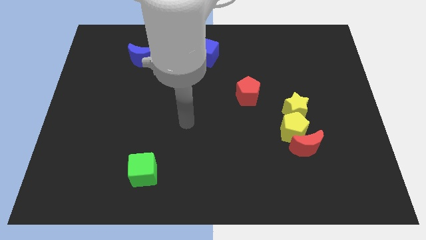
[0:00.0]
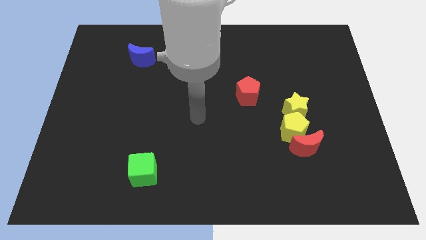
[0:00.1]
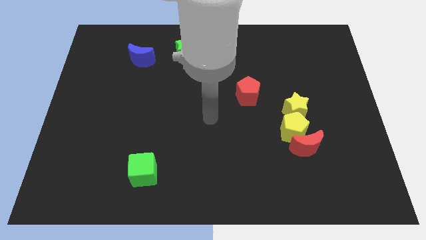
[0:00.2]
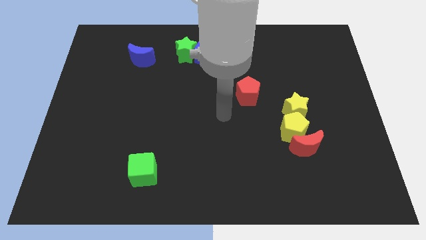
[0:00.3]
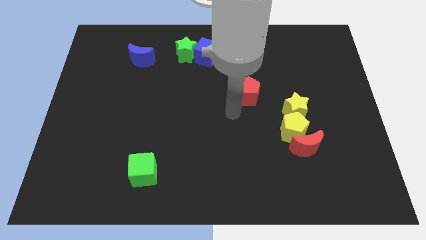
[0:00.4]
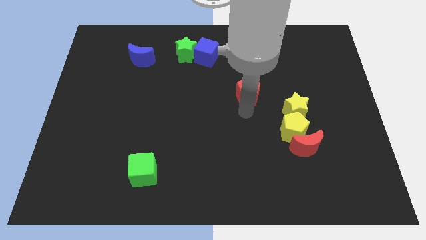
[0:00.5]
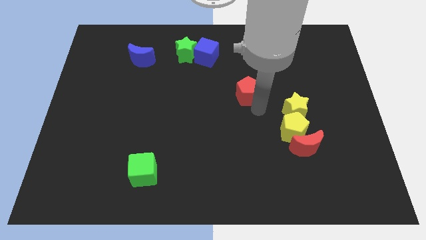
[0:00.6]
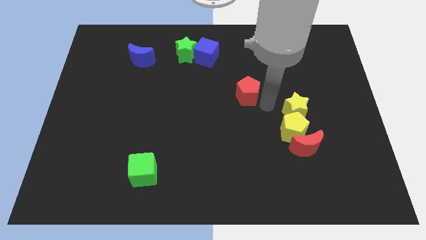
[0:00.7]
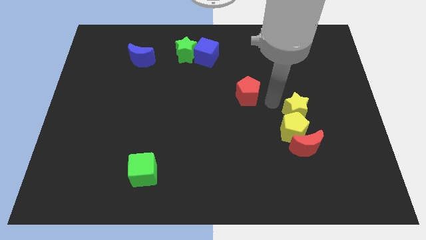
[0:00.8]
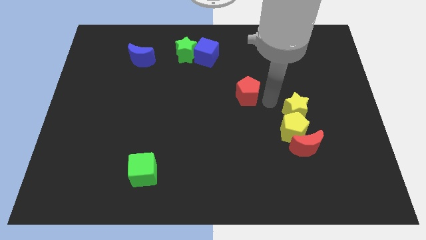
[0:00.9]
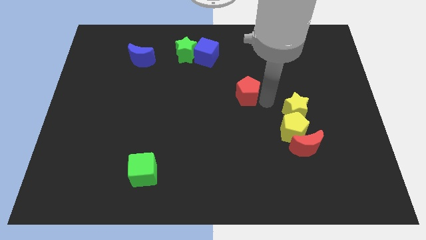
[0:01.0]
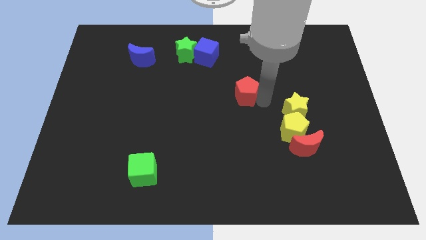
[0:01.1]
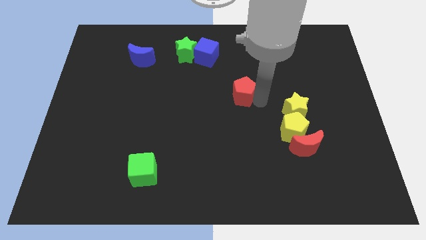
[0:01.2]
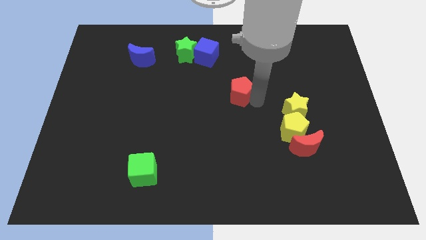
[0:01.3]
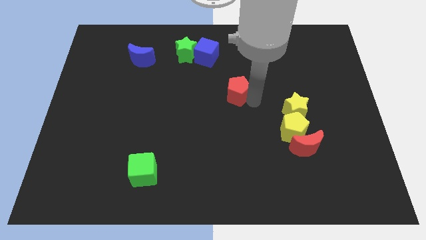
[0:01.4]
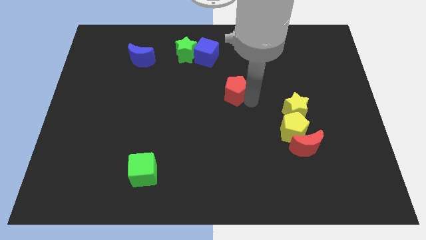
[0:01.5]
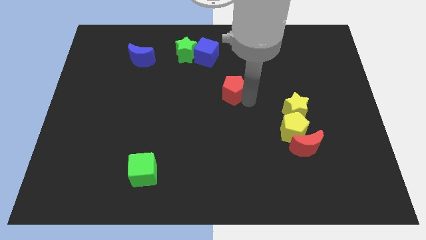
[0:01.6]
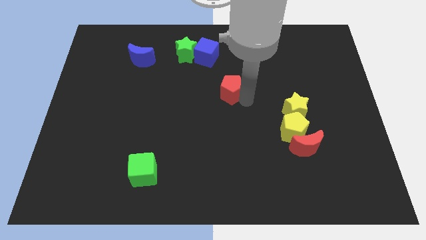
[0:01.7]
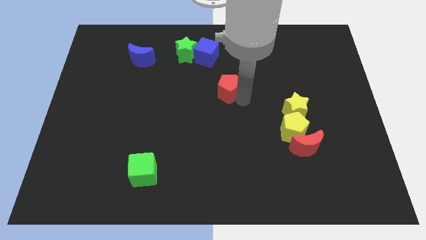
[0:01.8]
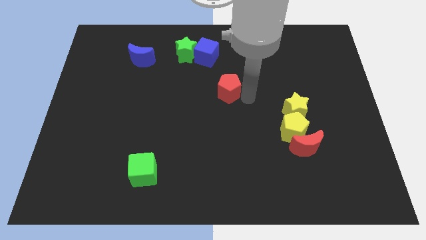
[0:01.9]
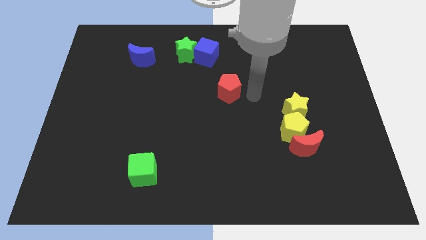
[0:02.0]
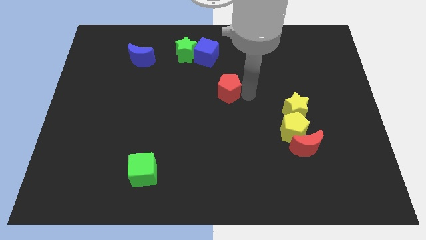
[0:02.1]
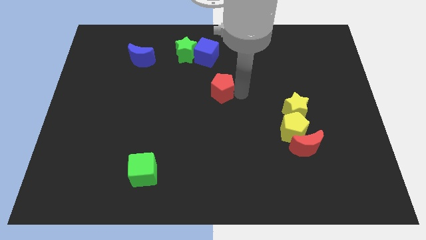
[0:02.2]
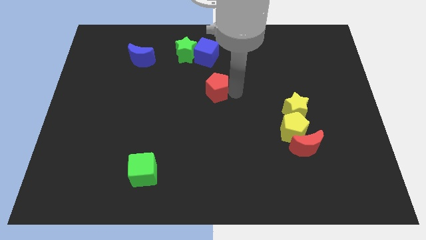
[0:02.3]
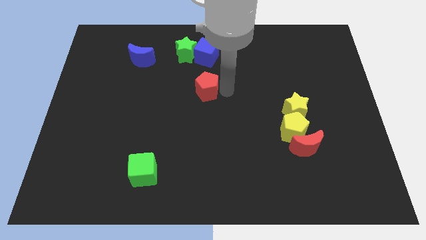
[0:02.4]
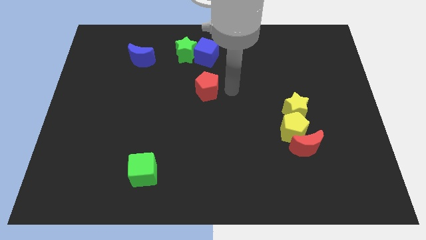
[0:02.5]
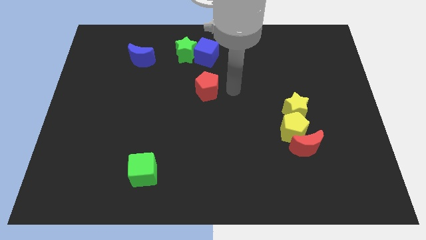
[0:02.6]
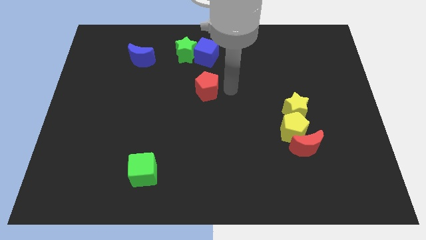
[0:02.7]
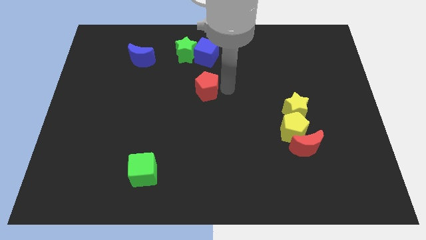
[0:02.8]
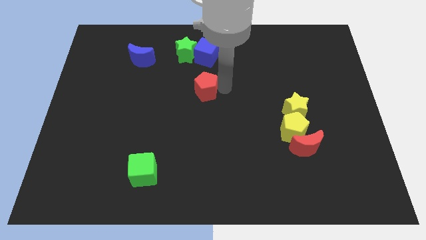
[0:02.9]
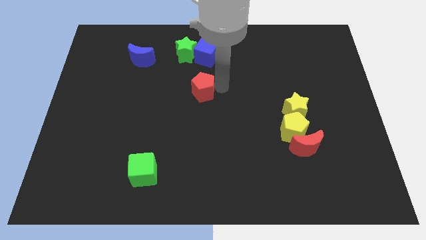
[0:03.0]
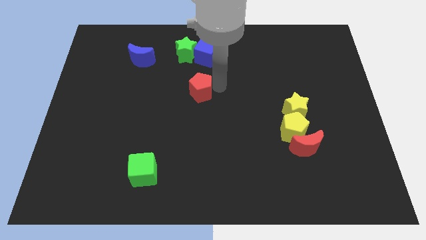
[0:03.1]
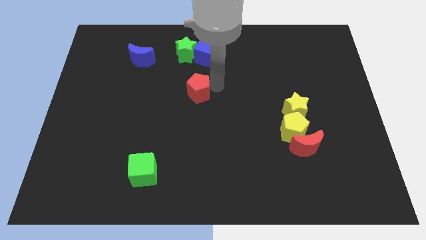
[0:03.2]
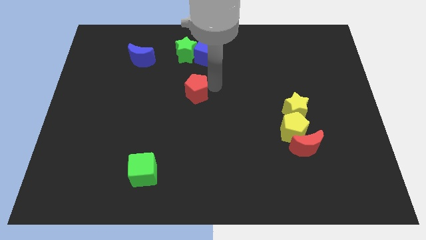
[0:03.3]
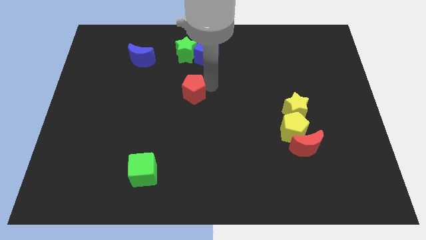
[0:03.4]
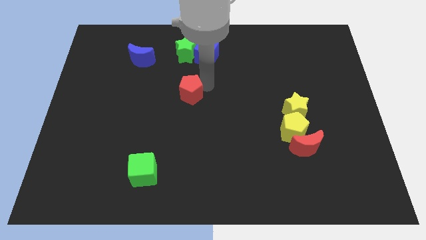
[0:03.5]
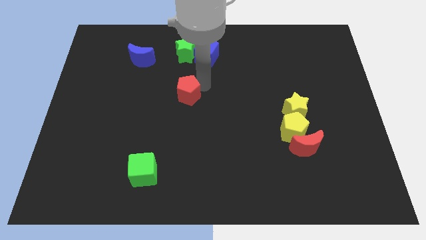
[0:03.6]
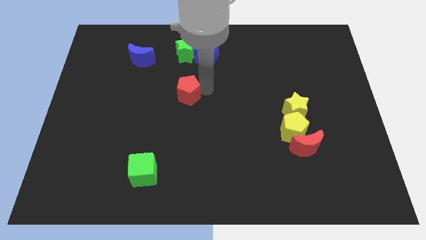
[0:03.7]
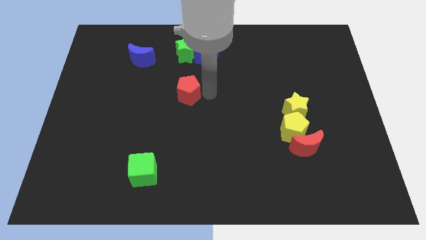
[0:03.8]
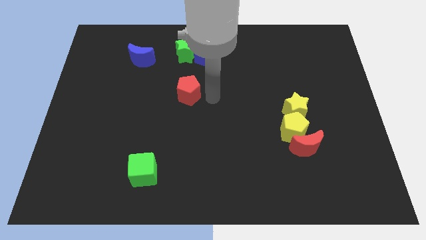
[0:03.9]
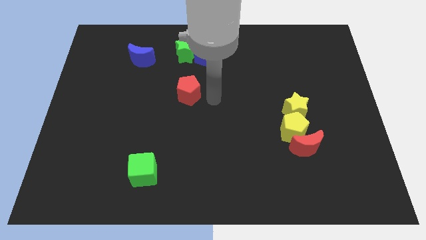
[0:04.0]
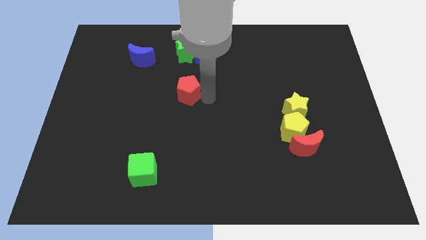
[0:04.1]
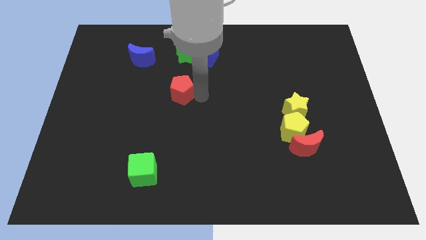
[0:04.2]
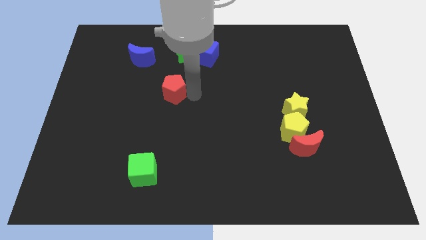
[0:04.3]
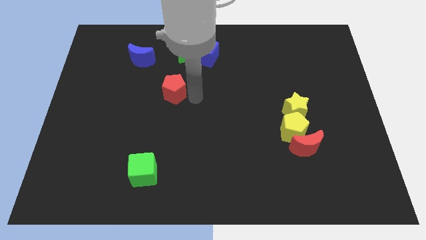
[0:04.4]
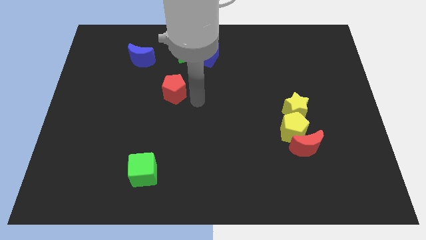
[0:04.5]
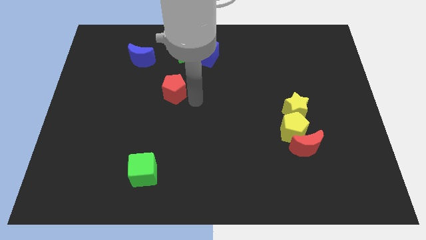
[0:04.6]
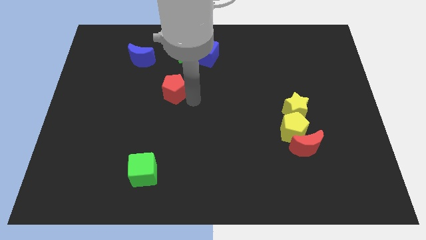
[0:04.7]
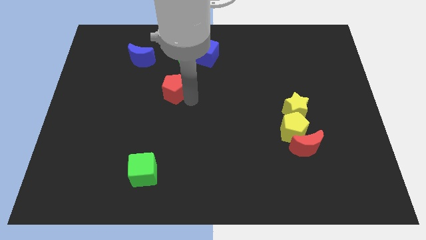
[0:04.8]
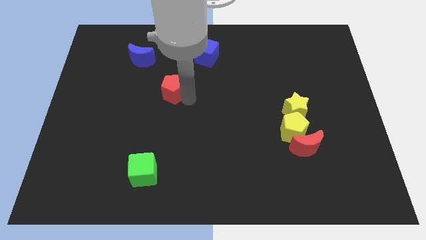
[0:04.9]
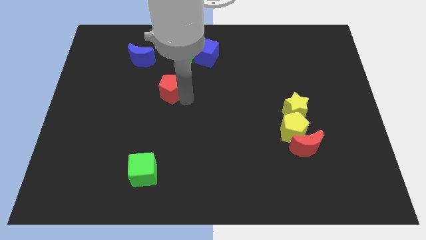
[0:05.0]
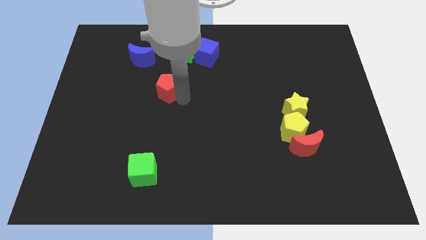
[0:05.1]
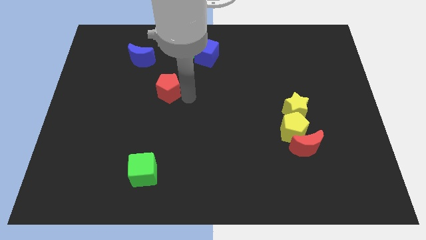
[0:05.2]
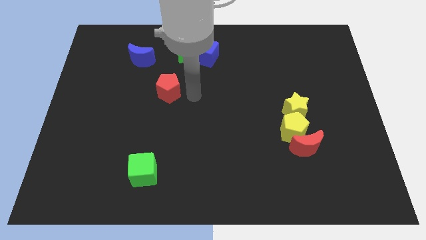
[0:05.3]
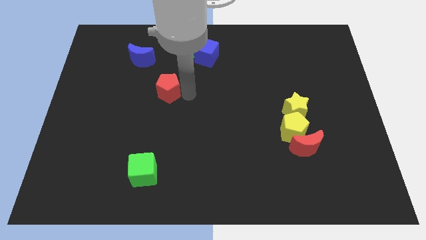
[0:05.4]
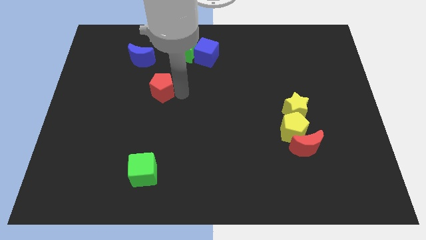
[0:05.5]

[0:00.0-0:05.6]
move the red pentagon left

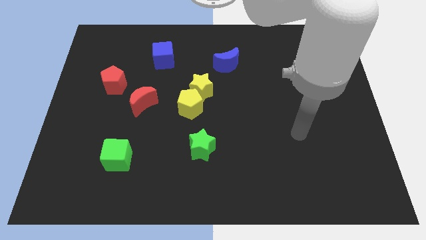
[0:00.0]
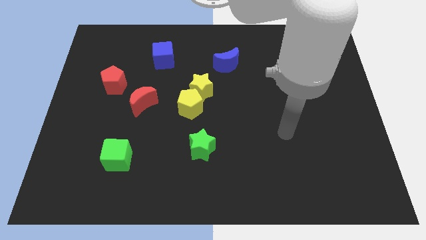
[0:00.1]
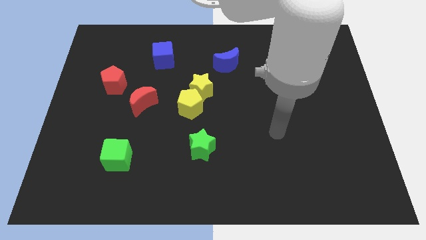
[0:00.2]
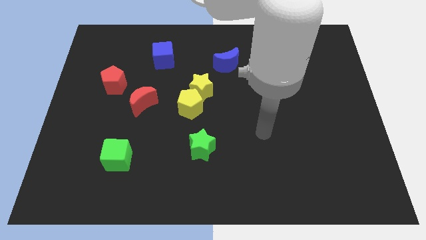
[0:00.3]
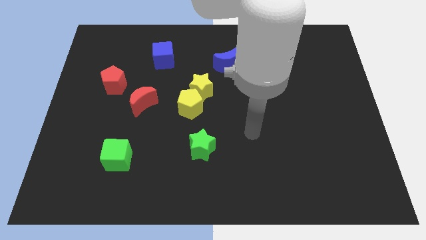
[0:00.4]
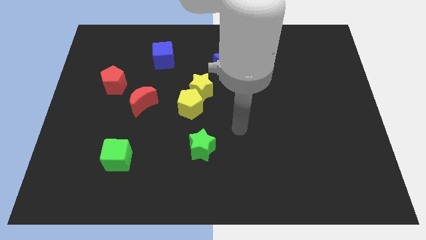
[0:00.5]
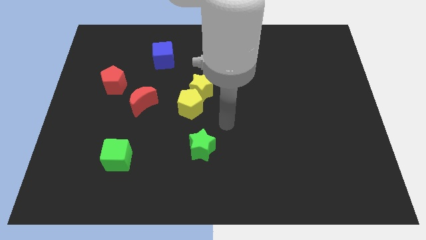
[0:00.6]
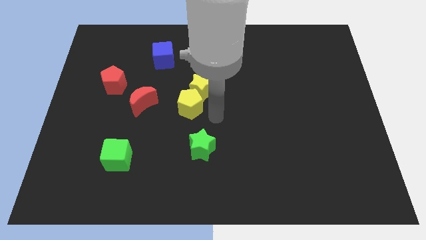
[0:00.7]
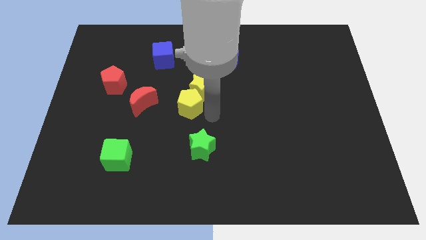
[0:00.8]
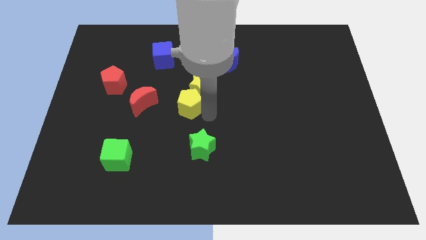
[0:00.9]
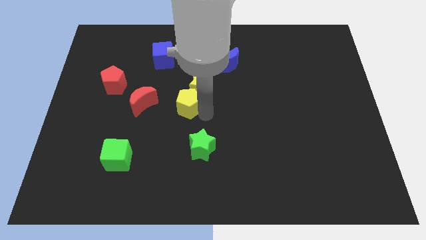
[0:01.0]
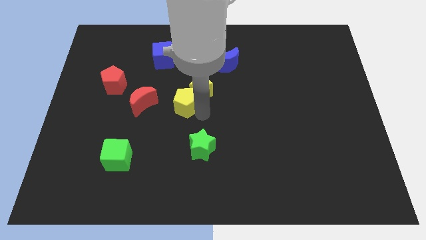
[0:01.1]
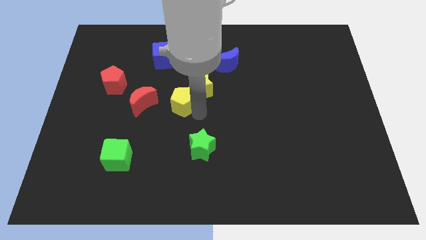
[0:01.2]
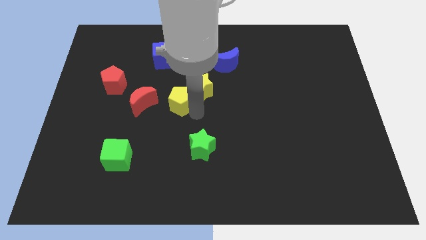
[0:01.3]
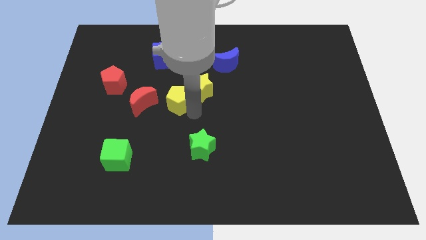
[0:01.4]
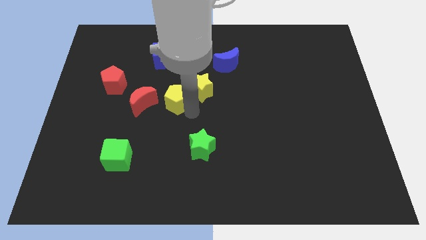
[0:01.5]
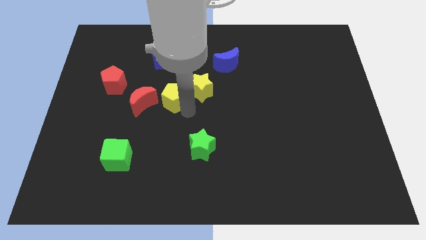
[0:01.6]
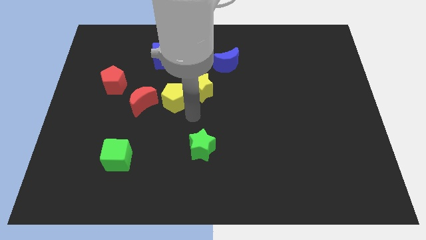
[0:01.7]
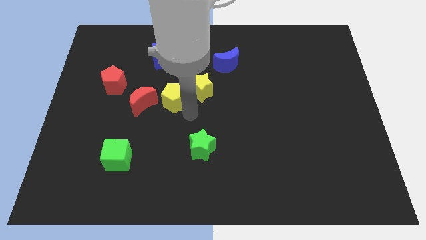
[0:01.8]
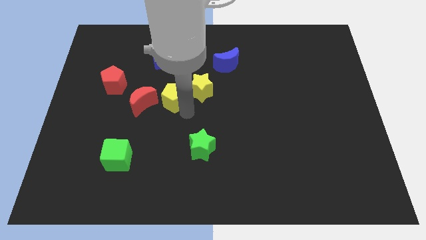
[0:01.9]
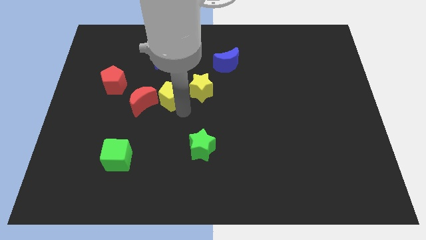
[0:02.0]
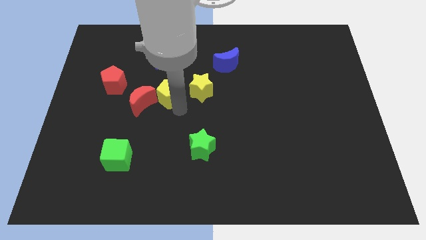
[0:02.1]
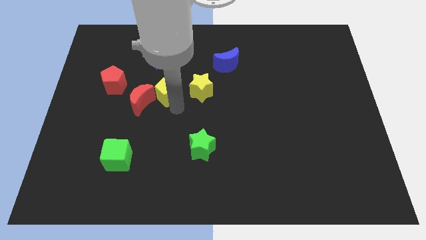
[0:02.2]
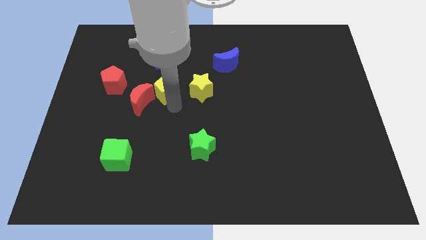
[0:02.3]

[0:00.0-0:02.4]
slightly push the yellow pentagon diagonally up and to the left

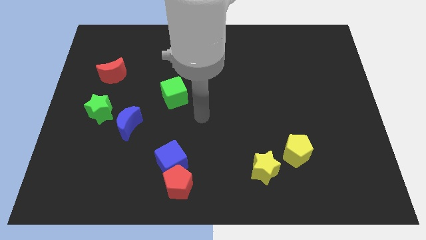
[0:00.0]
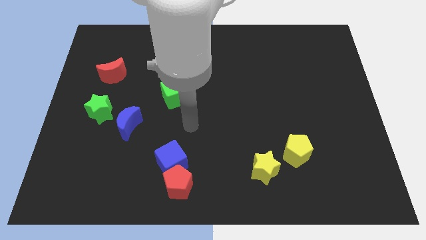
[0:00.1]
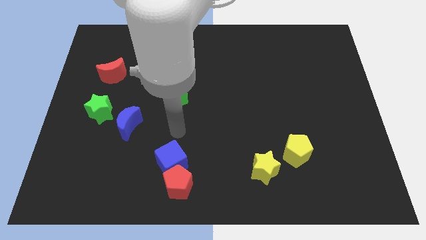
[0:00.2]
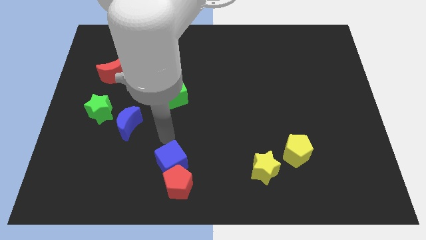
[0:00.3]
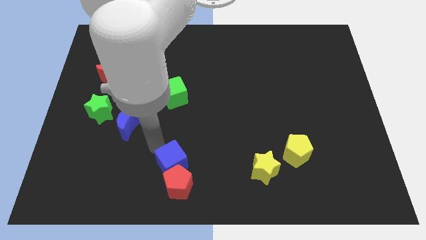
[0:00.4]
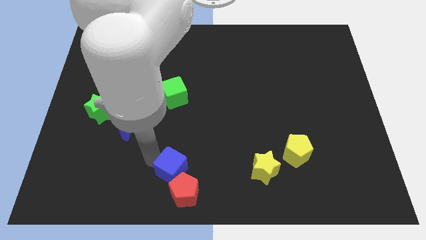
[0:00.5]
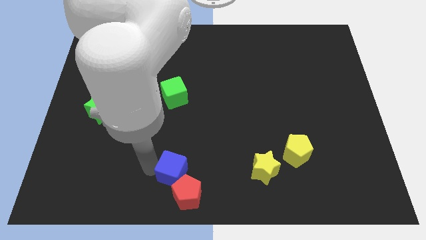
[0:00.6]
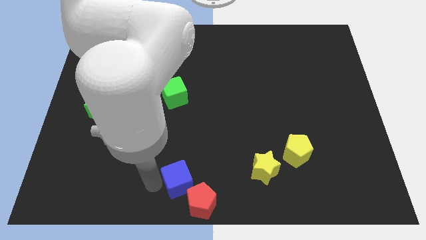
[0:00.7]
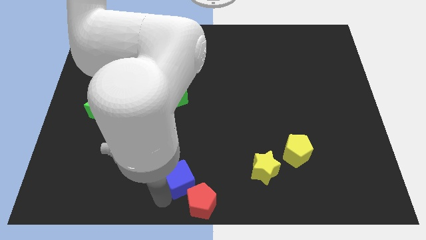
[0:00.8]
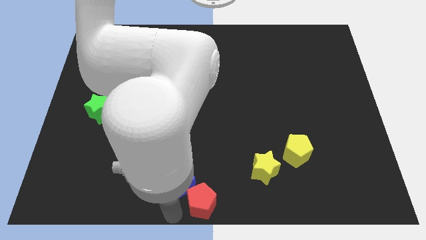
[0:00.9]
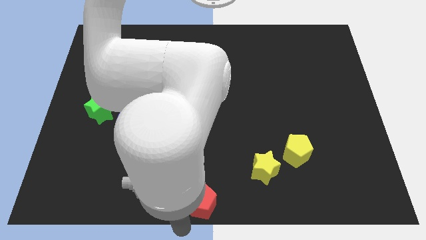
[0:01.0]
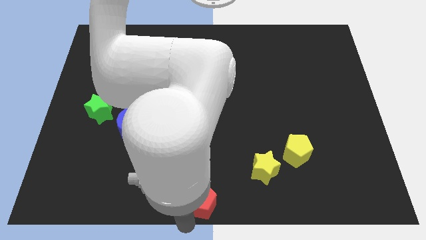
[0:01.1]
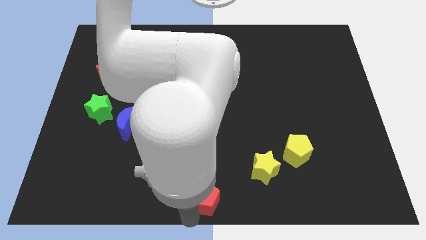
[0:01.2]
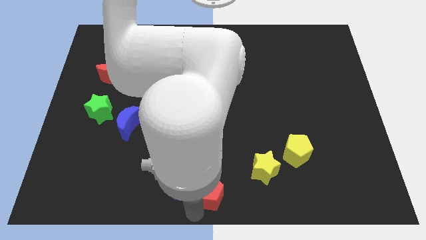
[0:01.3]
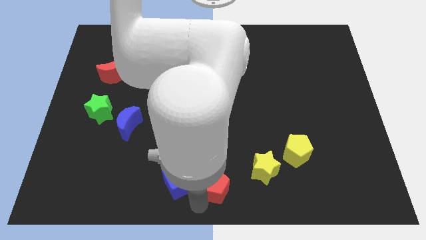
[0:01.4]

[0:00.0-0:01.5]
slightly push the red pentagon to the right
